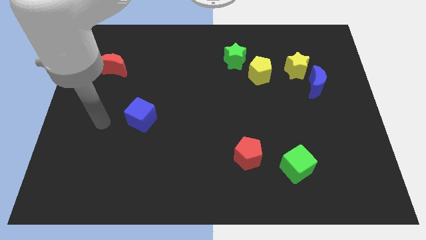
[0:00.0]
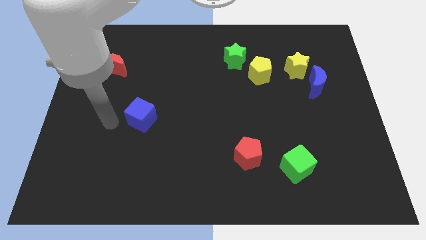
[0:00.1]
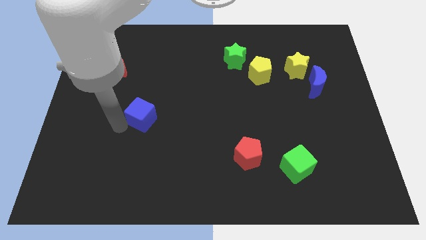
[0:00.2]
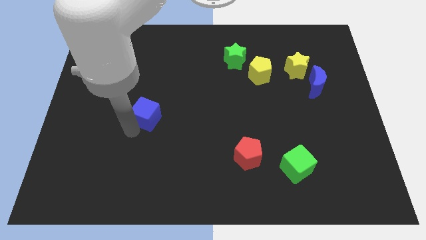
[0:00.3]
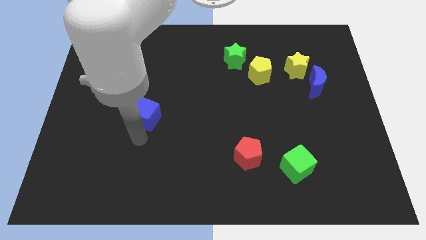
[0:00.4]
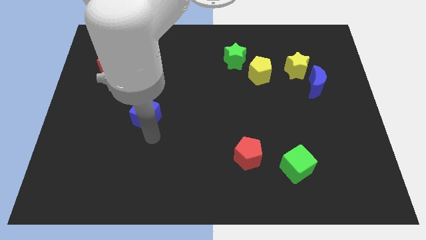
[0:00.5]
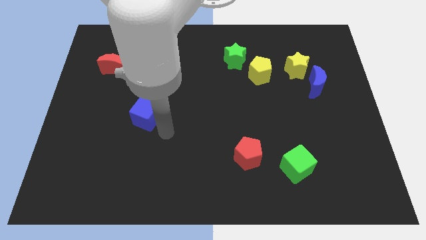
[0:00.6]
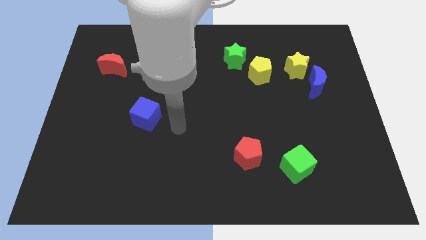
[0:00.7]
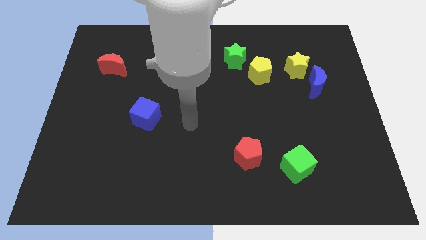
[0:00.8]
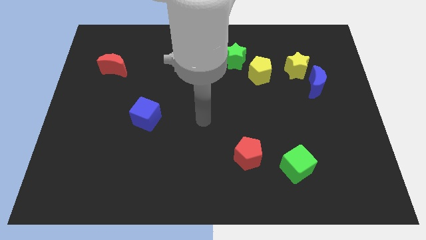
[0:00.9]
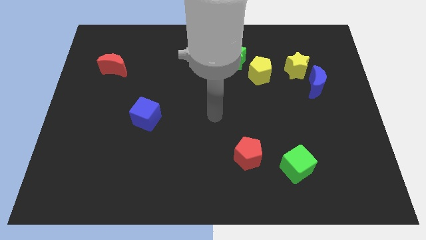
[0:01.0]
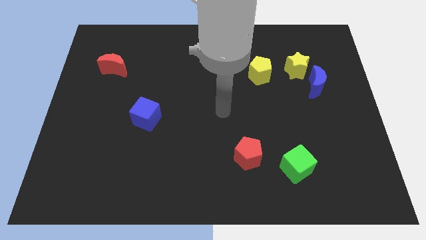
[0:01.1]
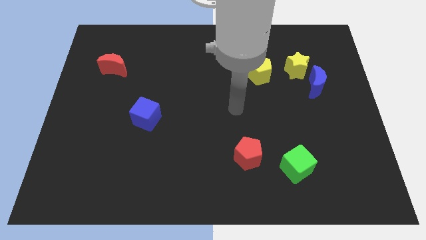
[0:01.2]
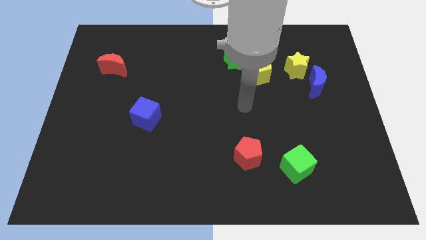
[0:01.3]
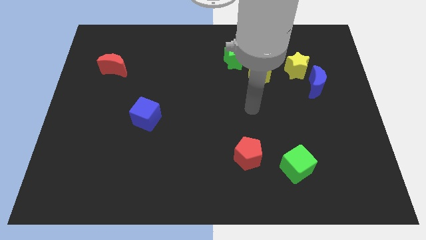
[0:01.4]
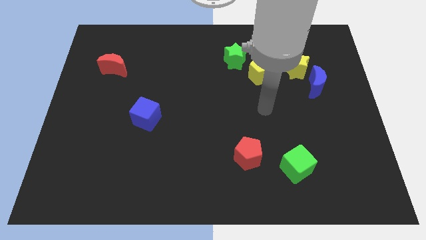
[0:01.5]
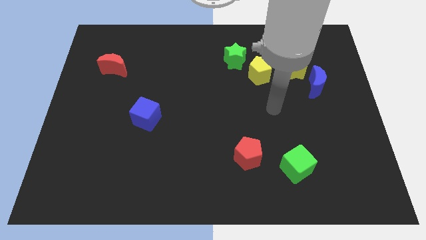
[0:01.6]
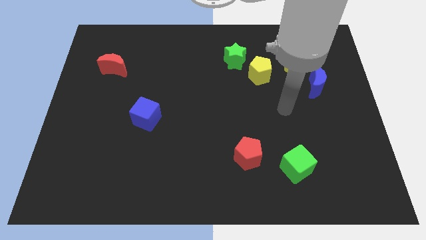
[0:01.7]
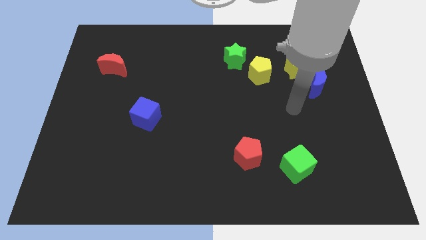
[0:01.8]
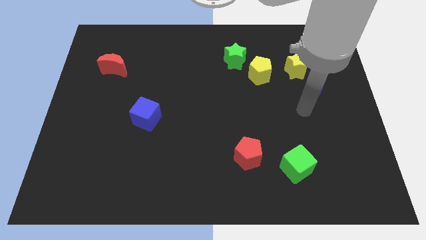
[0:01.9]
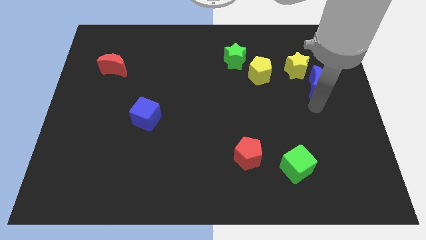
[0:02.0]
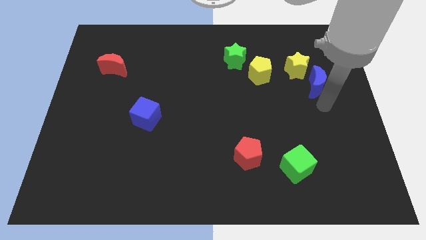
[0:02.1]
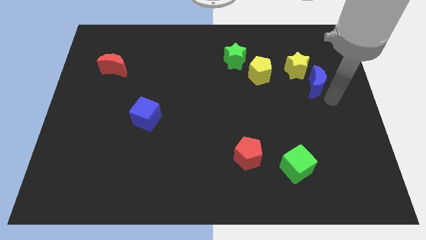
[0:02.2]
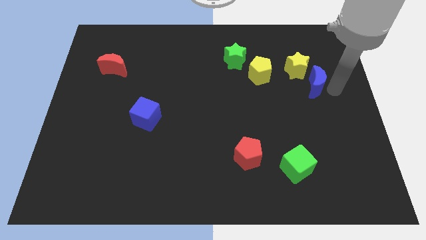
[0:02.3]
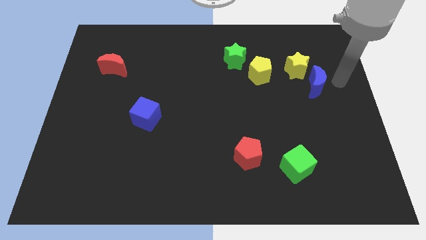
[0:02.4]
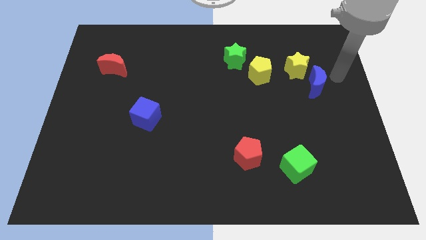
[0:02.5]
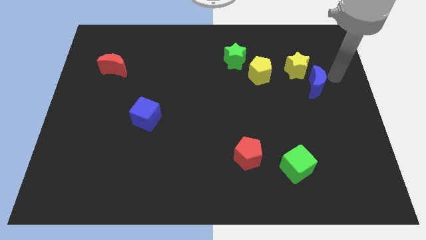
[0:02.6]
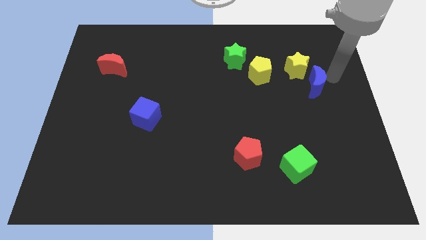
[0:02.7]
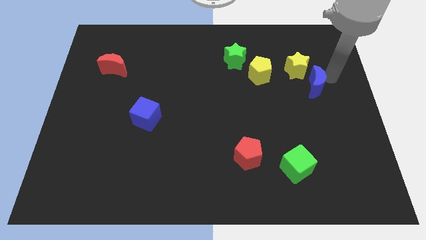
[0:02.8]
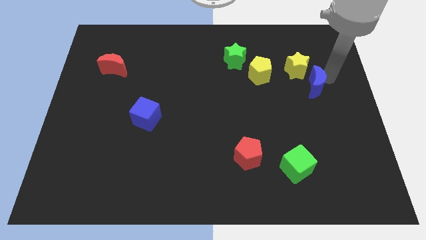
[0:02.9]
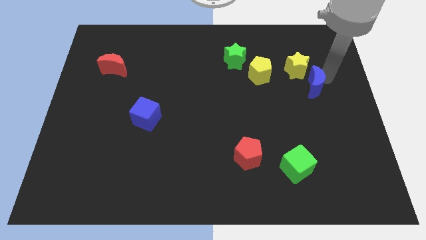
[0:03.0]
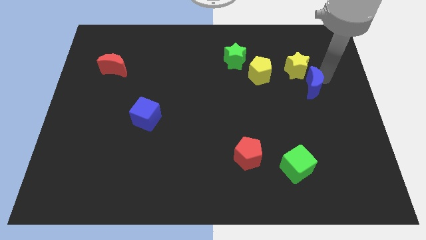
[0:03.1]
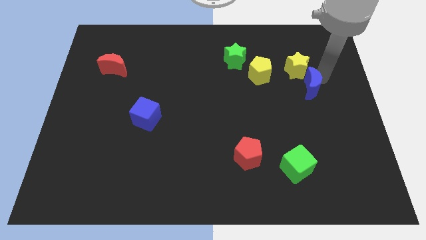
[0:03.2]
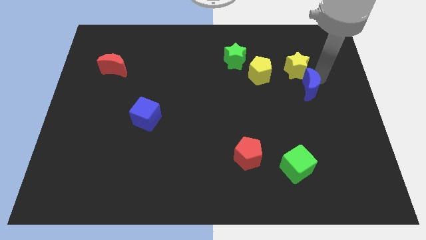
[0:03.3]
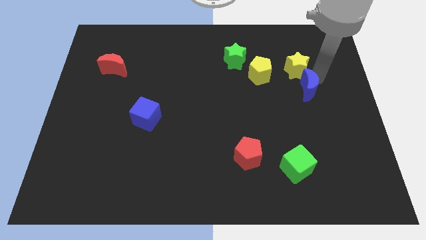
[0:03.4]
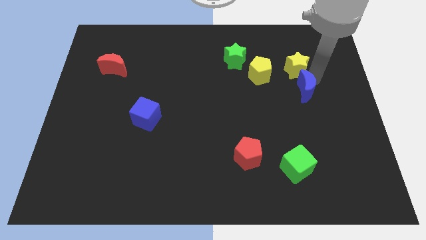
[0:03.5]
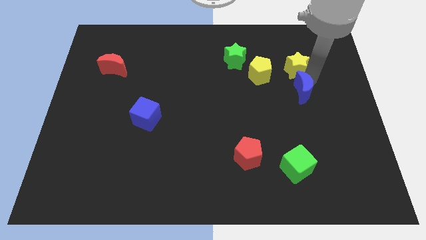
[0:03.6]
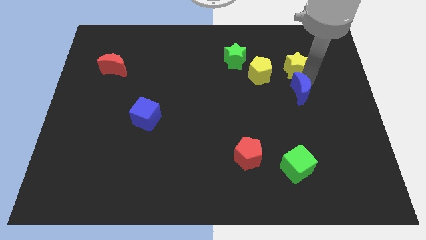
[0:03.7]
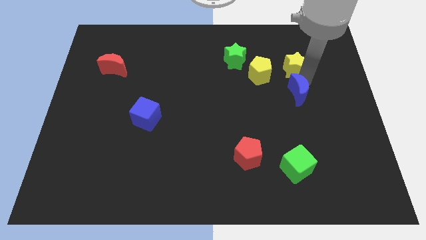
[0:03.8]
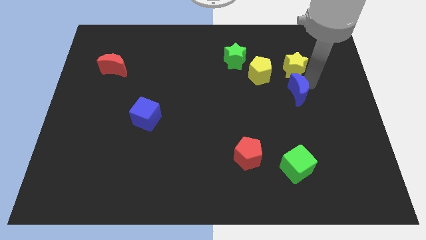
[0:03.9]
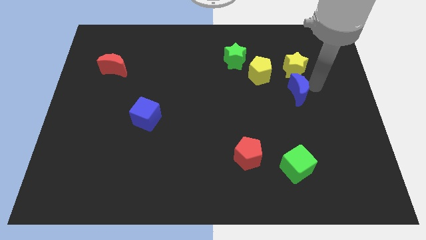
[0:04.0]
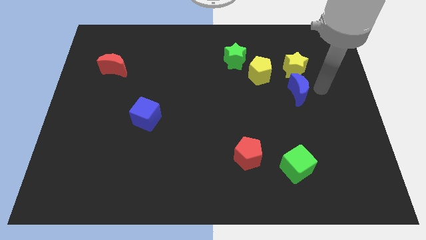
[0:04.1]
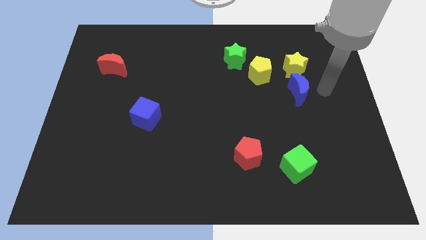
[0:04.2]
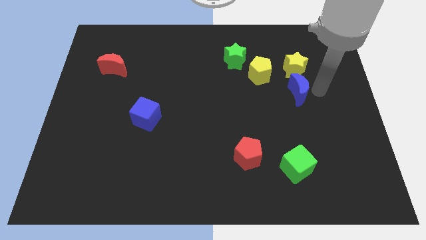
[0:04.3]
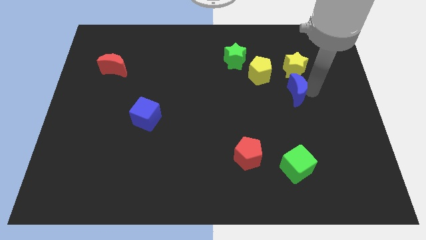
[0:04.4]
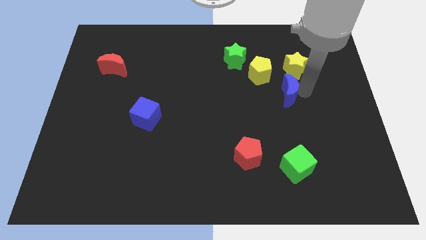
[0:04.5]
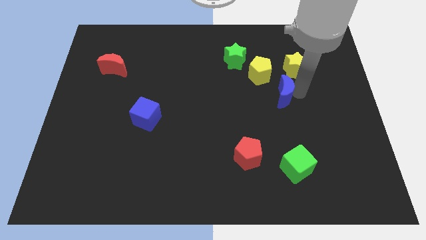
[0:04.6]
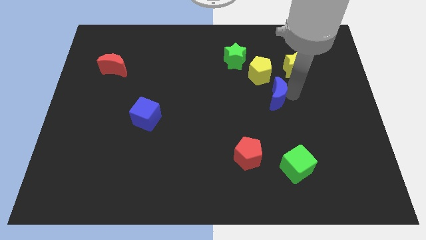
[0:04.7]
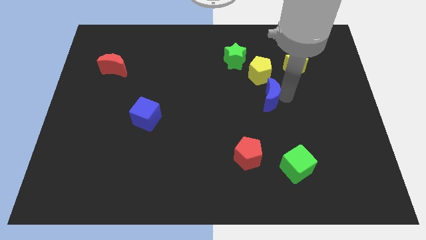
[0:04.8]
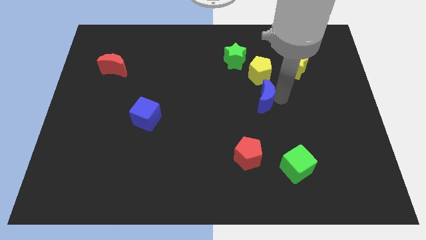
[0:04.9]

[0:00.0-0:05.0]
push the blue moon to the center

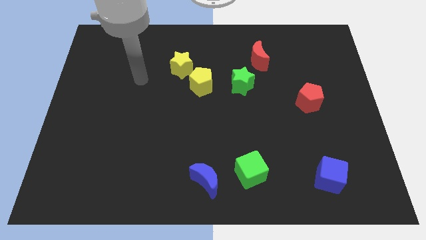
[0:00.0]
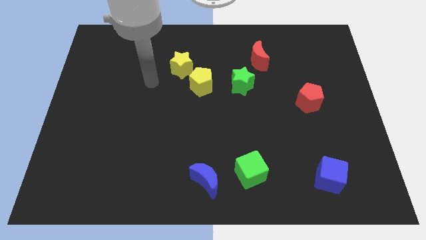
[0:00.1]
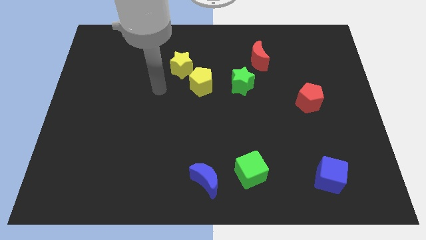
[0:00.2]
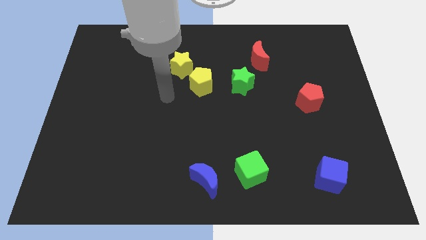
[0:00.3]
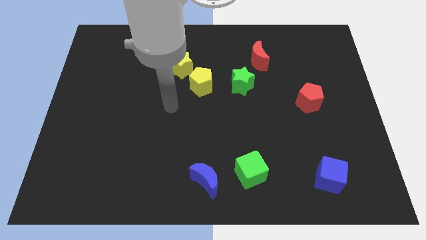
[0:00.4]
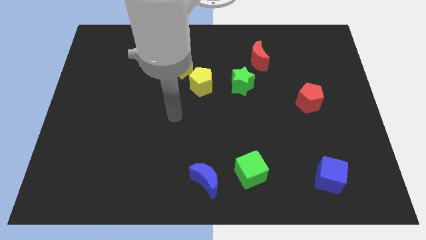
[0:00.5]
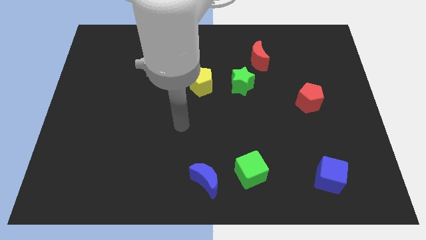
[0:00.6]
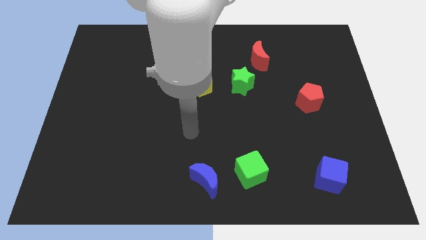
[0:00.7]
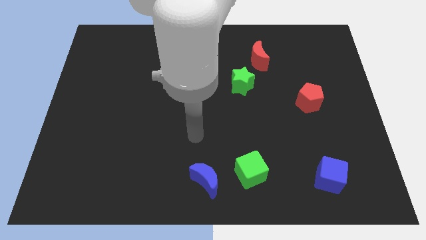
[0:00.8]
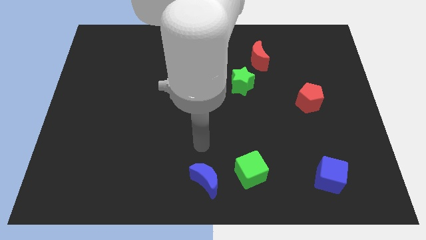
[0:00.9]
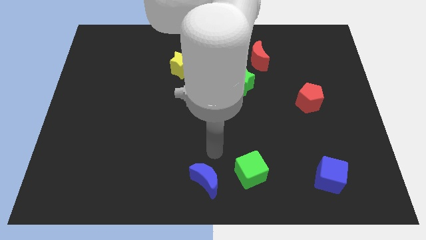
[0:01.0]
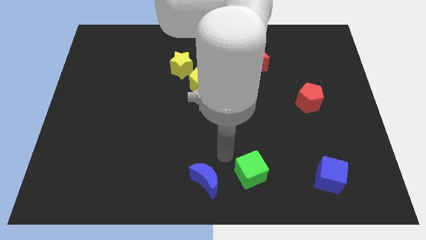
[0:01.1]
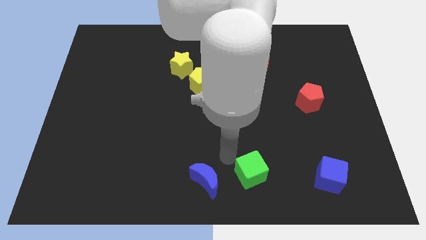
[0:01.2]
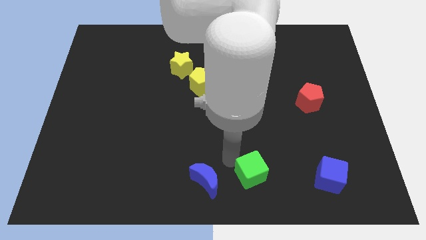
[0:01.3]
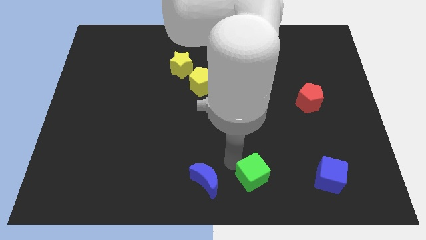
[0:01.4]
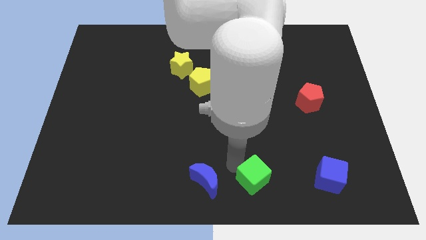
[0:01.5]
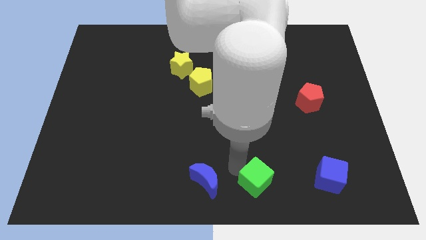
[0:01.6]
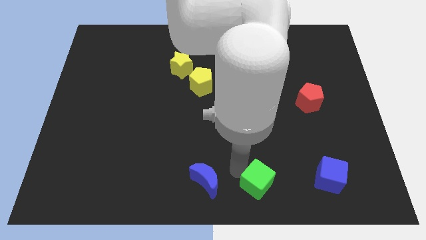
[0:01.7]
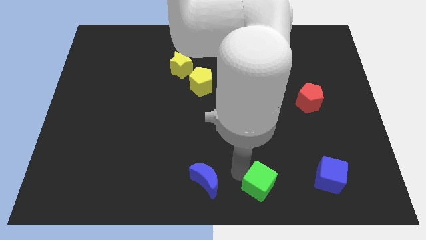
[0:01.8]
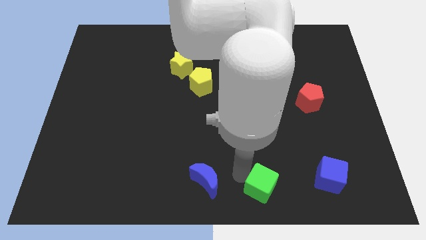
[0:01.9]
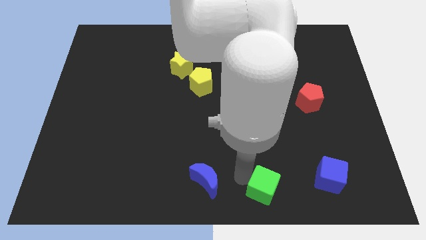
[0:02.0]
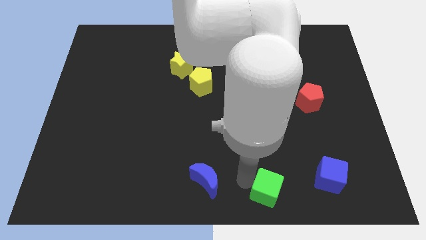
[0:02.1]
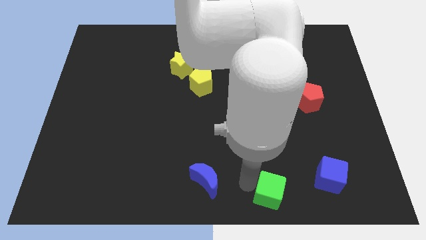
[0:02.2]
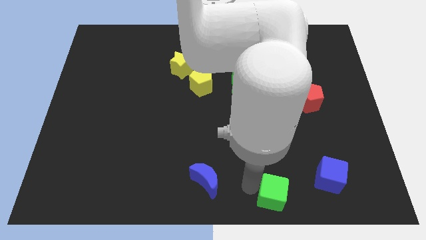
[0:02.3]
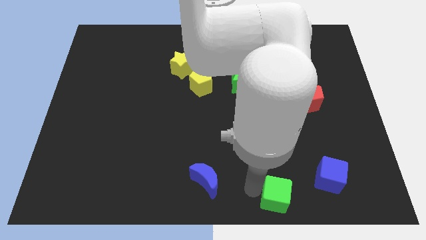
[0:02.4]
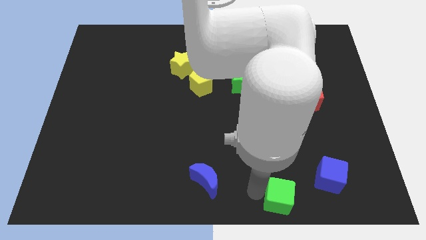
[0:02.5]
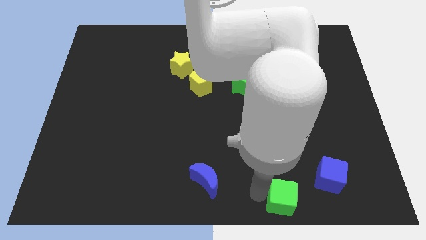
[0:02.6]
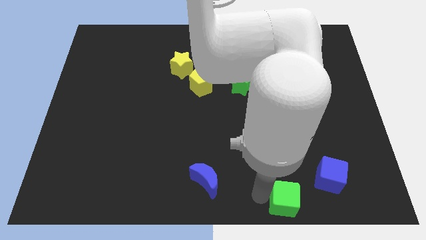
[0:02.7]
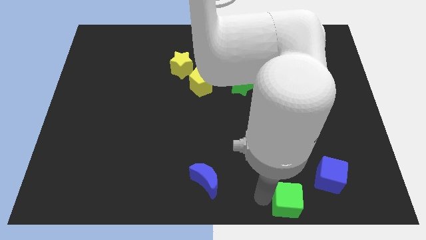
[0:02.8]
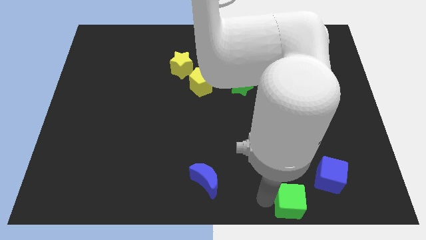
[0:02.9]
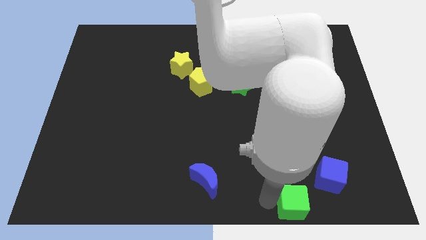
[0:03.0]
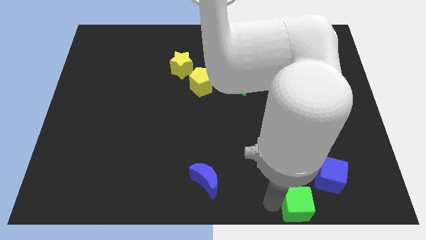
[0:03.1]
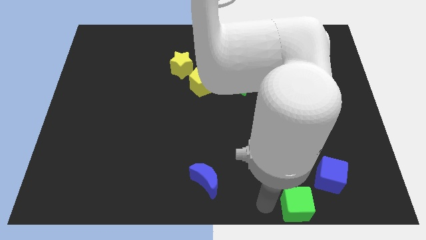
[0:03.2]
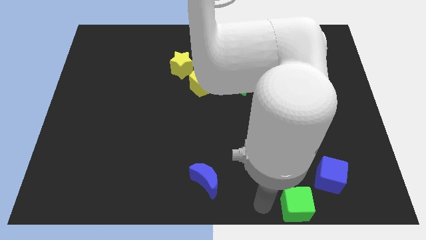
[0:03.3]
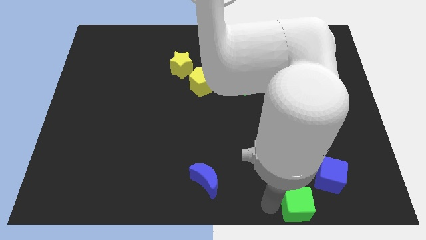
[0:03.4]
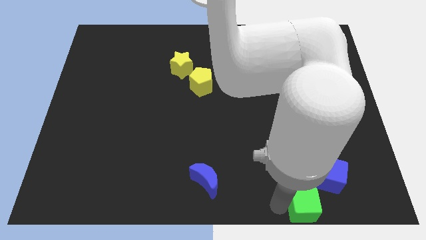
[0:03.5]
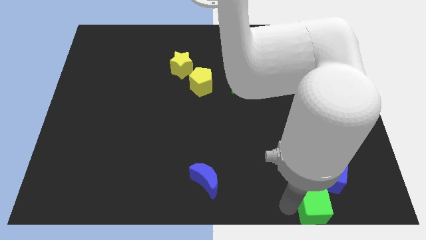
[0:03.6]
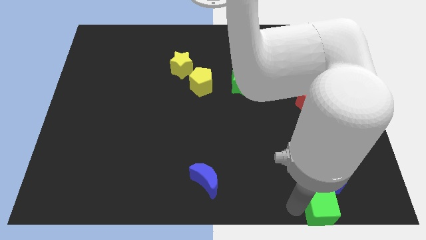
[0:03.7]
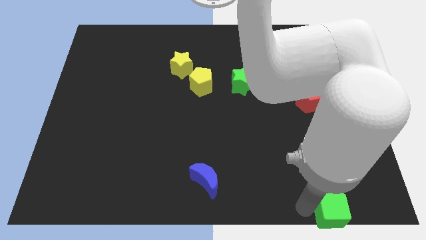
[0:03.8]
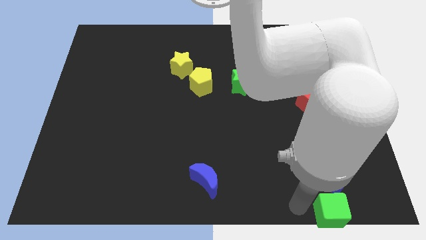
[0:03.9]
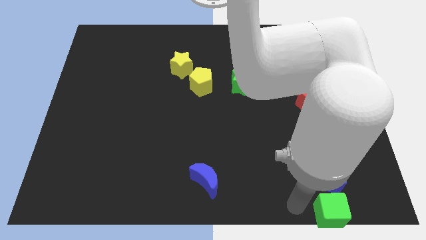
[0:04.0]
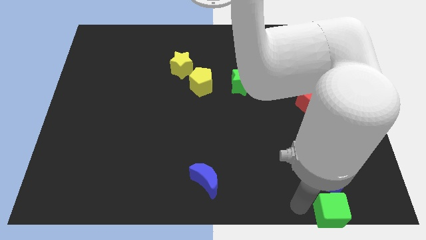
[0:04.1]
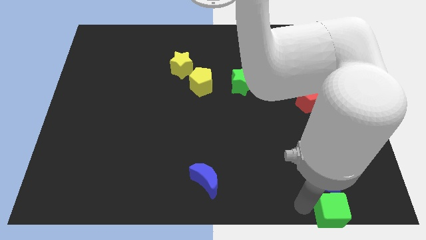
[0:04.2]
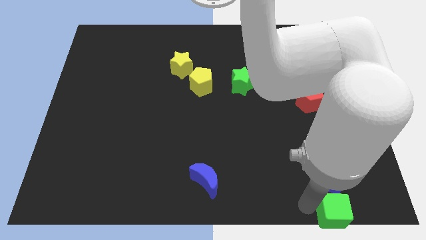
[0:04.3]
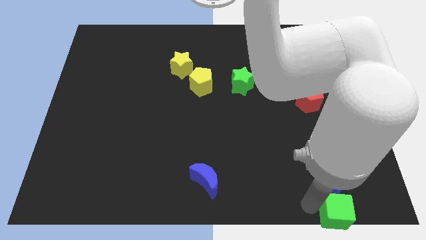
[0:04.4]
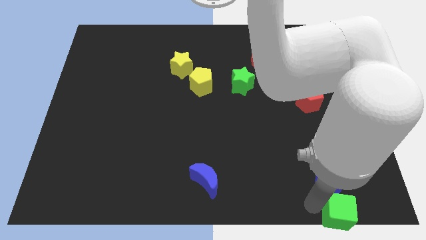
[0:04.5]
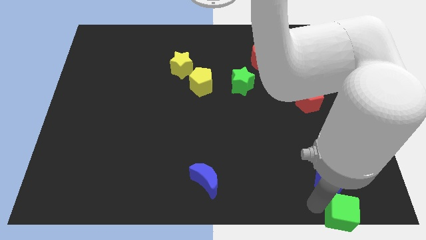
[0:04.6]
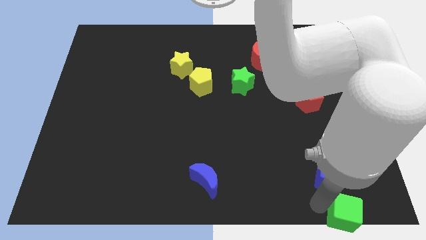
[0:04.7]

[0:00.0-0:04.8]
move the green cube to the bottom right of the board
